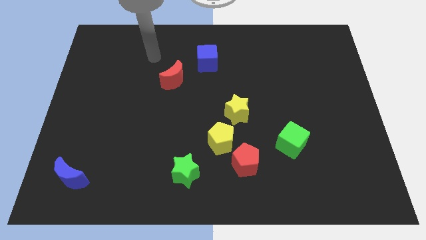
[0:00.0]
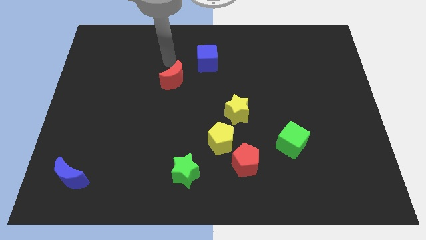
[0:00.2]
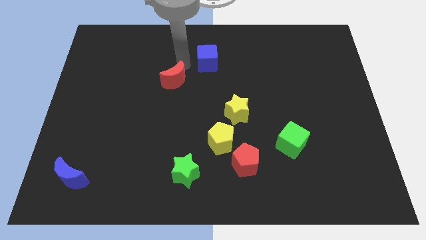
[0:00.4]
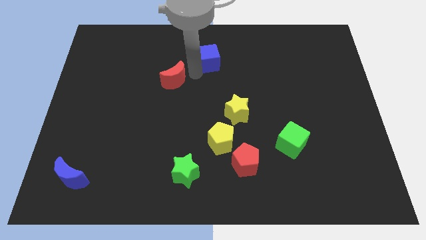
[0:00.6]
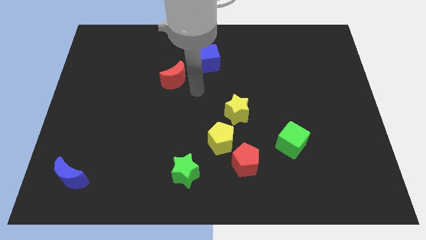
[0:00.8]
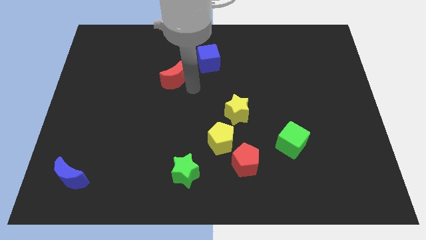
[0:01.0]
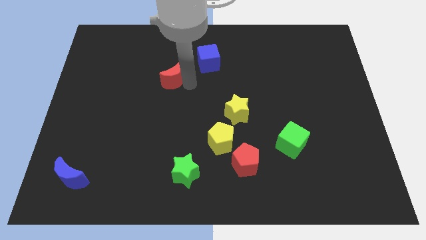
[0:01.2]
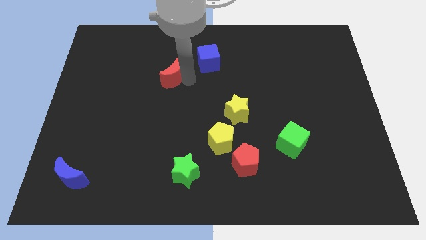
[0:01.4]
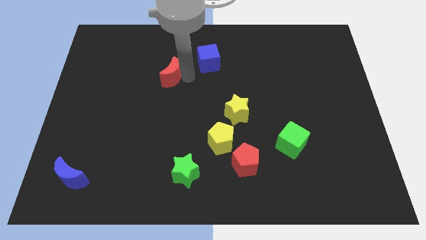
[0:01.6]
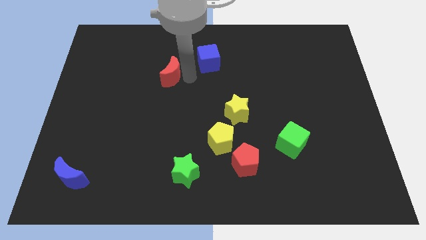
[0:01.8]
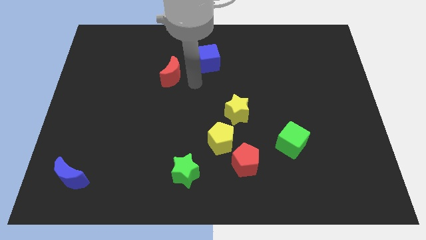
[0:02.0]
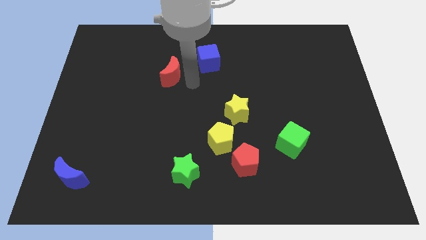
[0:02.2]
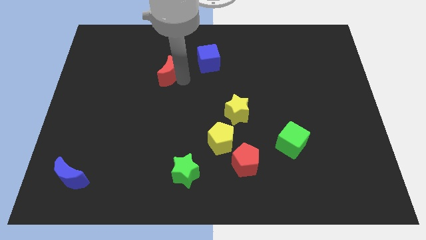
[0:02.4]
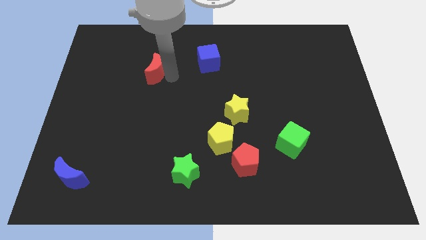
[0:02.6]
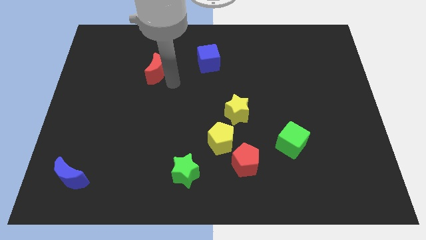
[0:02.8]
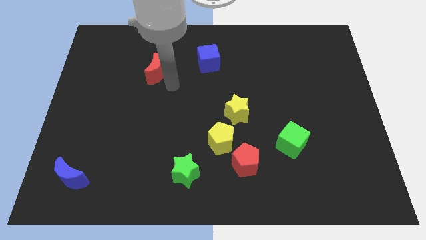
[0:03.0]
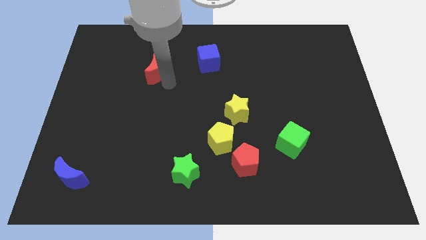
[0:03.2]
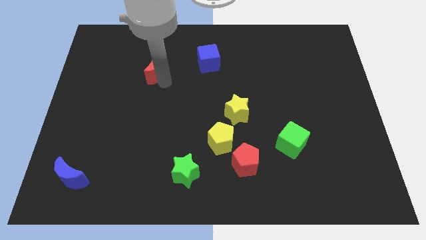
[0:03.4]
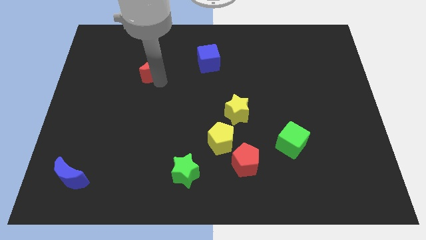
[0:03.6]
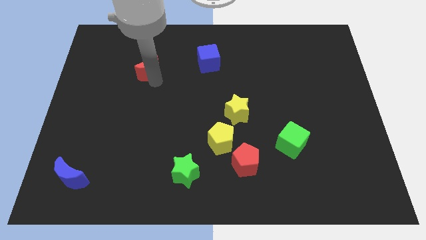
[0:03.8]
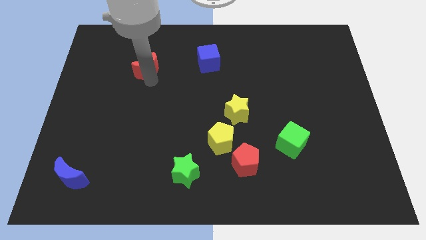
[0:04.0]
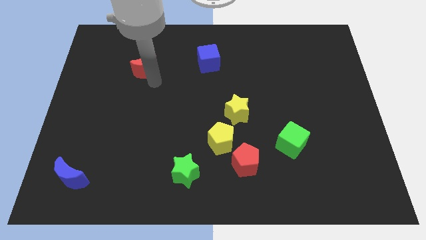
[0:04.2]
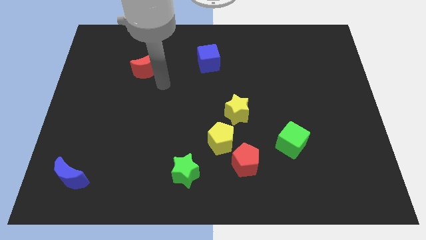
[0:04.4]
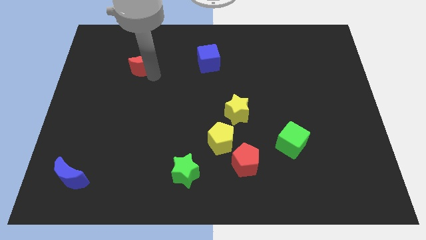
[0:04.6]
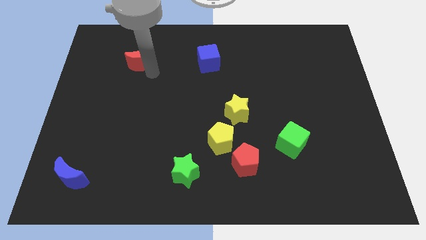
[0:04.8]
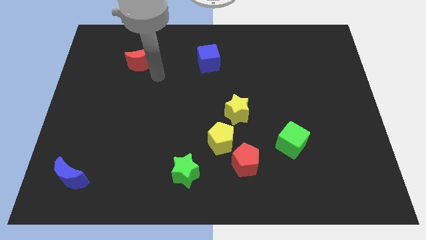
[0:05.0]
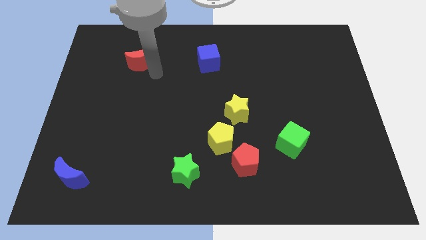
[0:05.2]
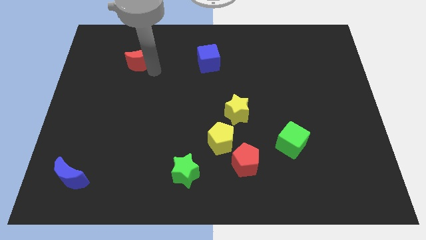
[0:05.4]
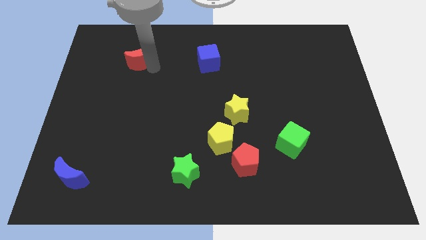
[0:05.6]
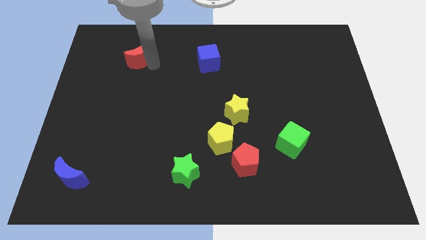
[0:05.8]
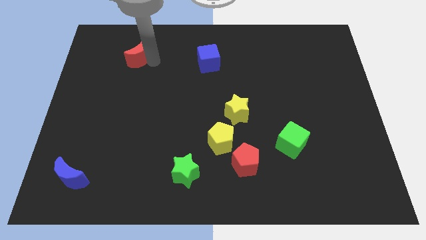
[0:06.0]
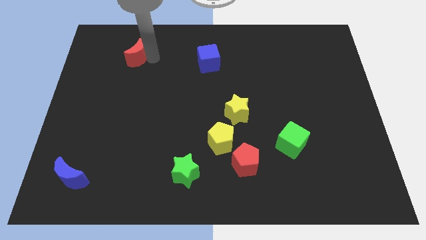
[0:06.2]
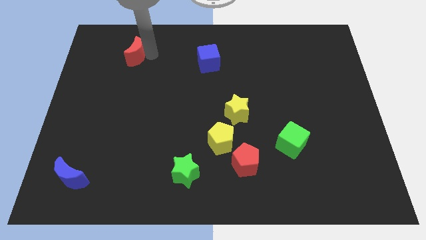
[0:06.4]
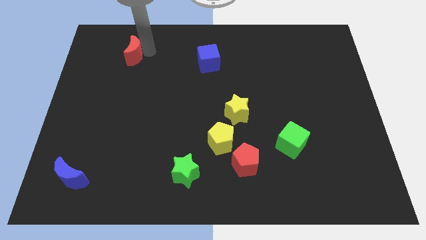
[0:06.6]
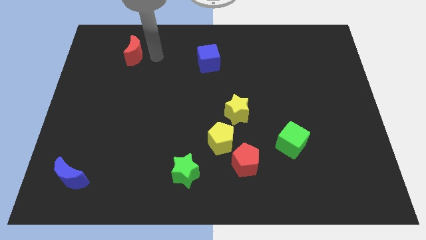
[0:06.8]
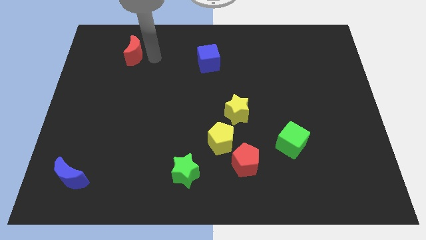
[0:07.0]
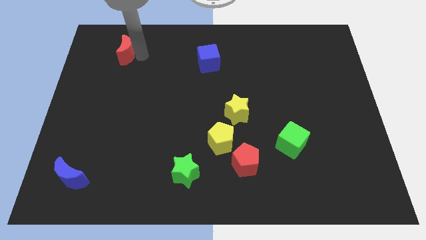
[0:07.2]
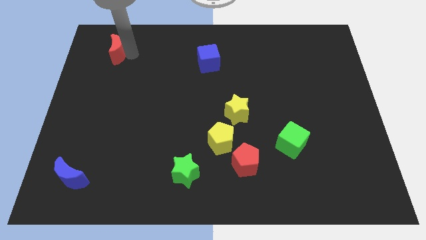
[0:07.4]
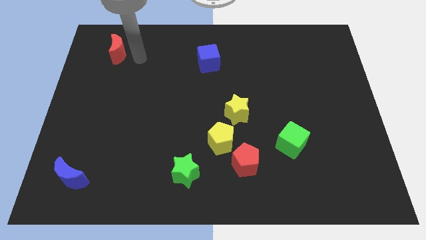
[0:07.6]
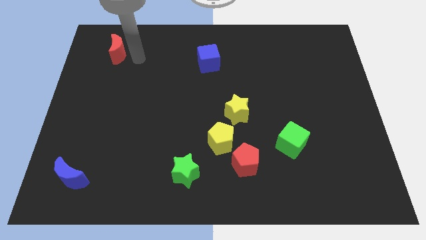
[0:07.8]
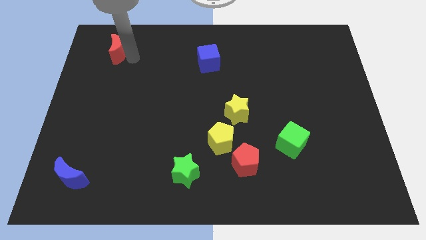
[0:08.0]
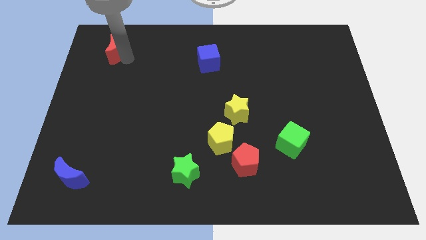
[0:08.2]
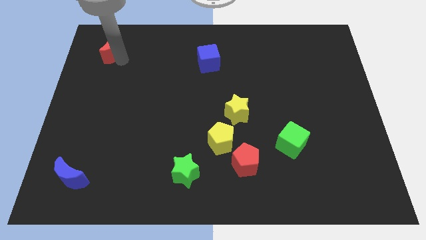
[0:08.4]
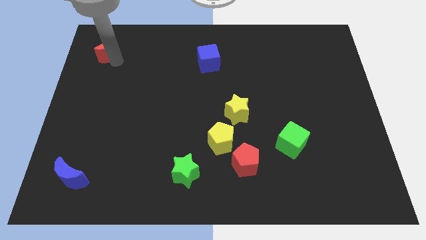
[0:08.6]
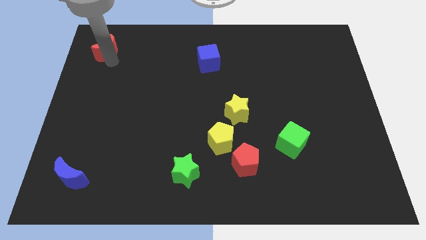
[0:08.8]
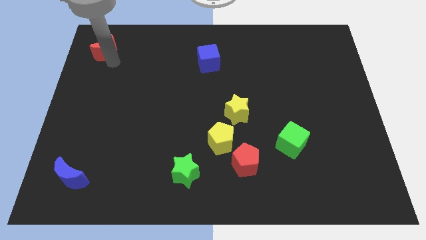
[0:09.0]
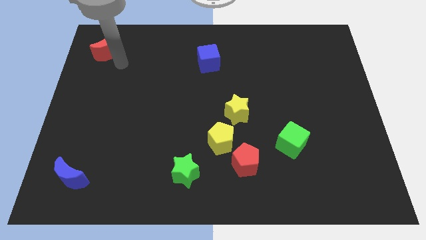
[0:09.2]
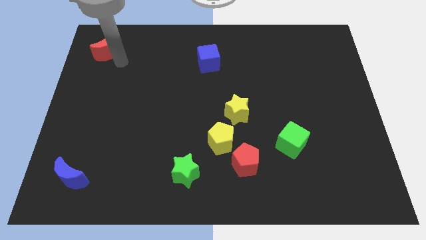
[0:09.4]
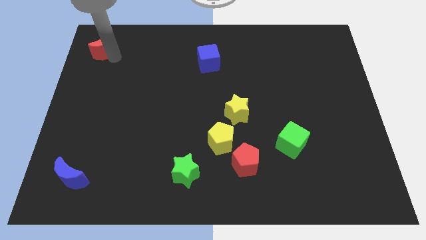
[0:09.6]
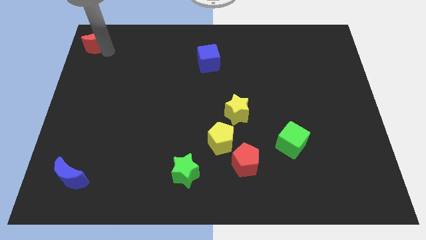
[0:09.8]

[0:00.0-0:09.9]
move the red moon to the top left

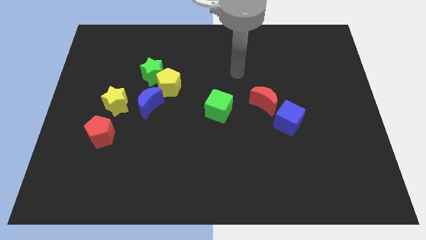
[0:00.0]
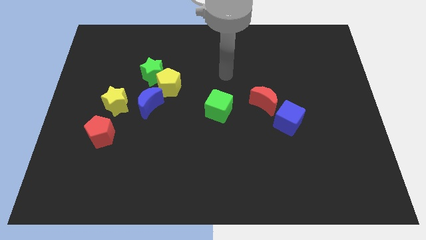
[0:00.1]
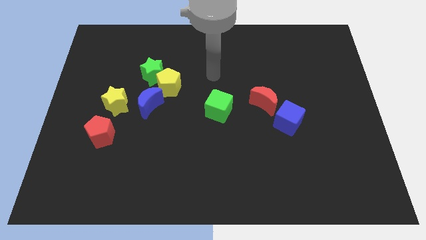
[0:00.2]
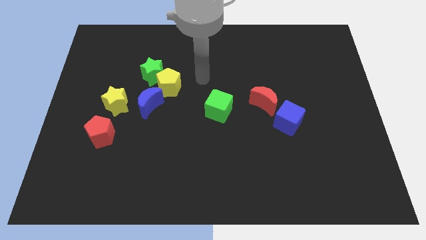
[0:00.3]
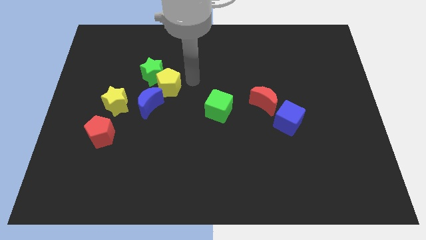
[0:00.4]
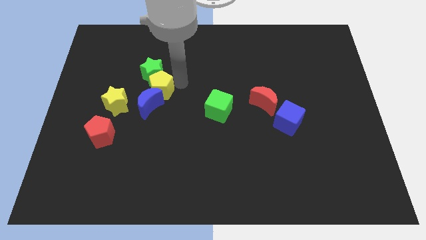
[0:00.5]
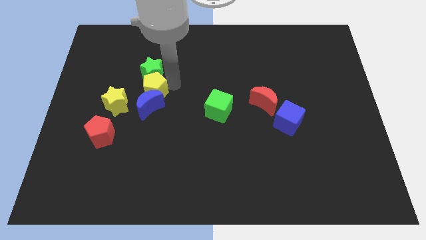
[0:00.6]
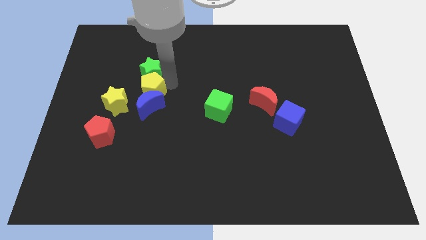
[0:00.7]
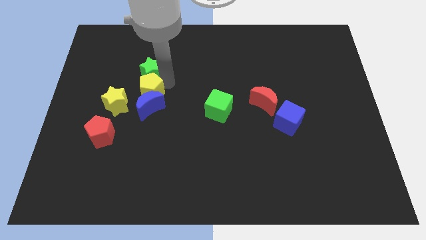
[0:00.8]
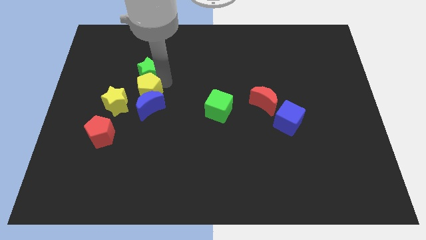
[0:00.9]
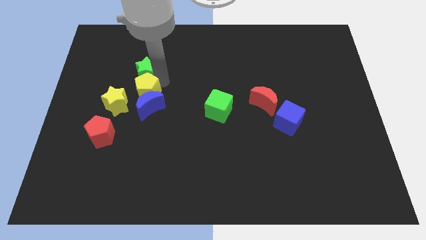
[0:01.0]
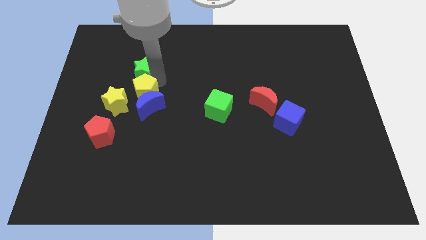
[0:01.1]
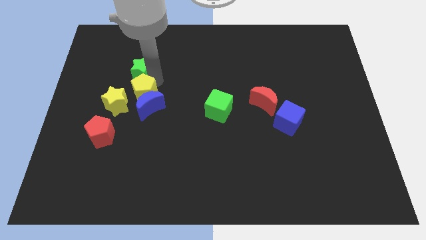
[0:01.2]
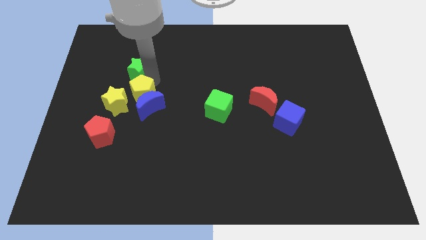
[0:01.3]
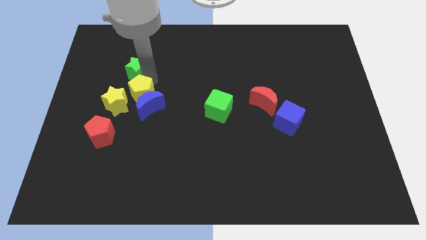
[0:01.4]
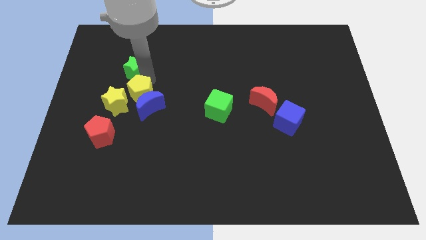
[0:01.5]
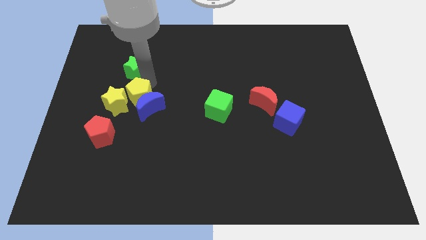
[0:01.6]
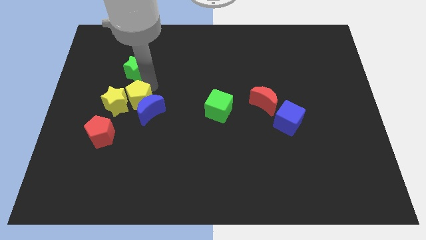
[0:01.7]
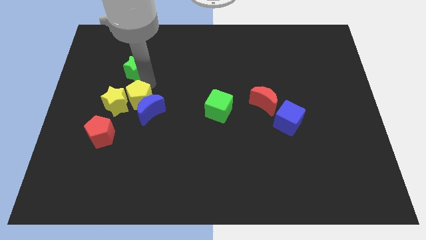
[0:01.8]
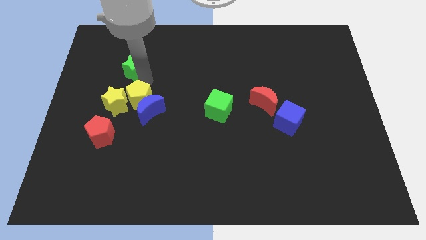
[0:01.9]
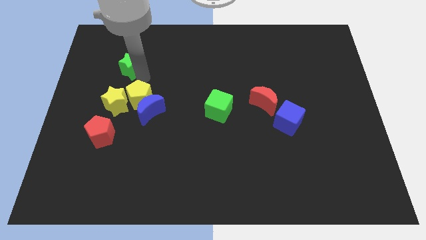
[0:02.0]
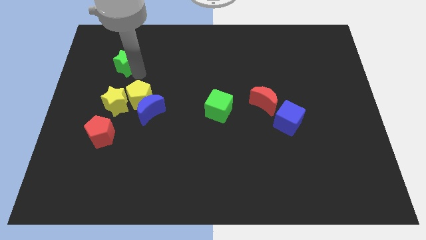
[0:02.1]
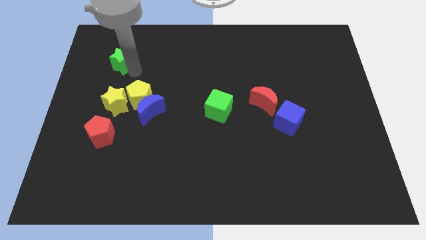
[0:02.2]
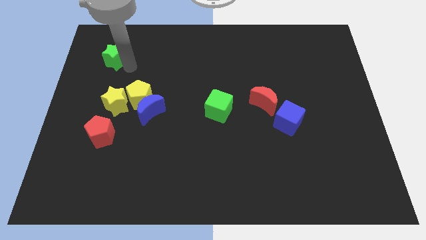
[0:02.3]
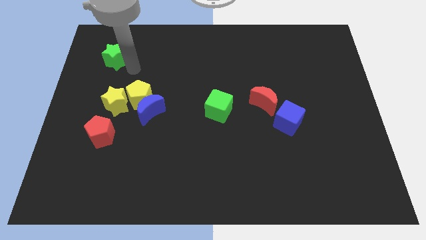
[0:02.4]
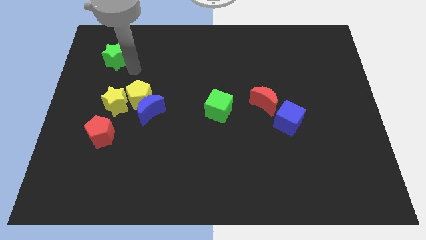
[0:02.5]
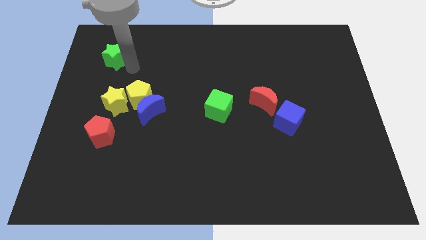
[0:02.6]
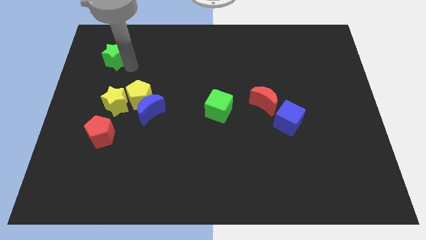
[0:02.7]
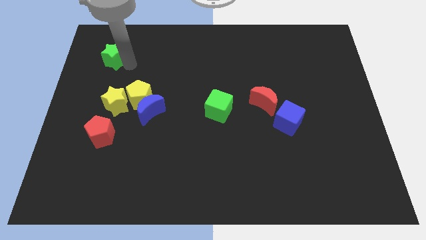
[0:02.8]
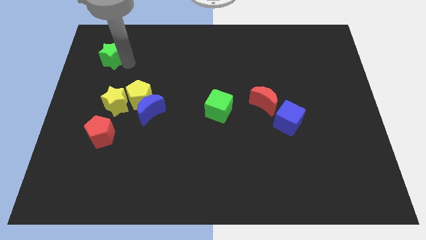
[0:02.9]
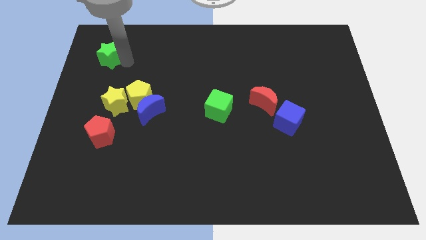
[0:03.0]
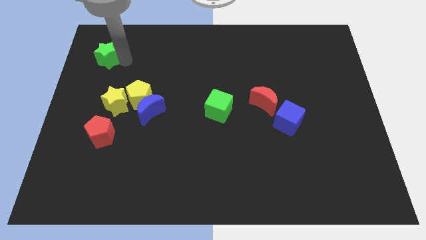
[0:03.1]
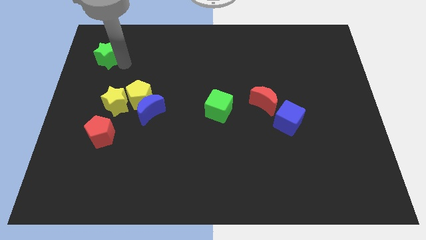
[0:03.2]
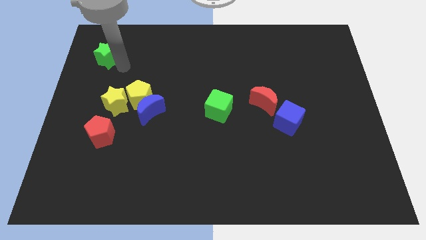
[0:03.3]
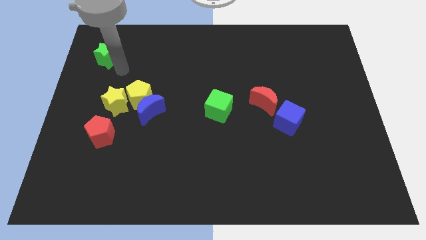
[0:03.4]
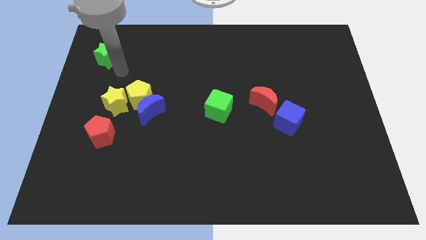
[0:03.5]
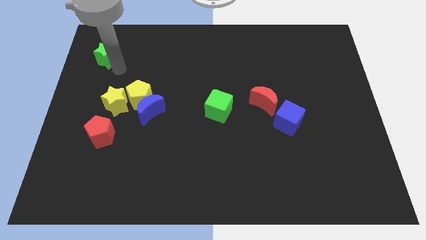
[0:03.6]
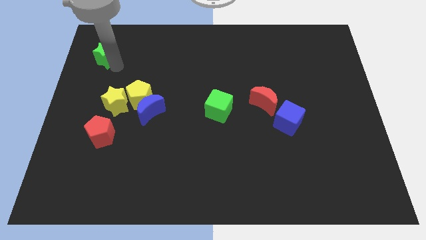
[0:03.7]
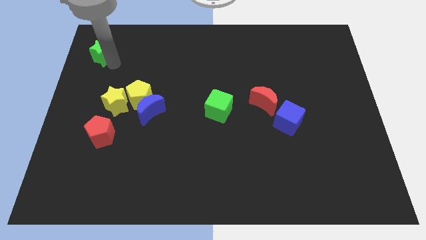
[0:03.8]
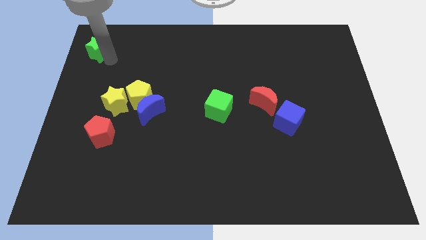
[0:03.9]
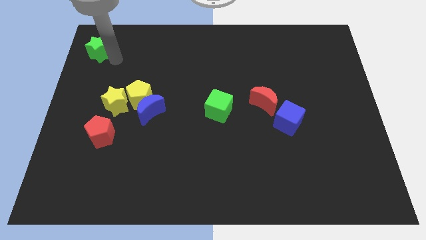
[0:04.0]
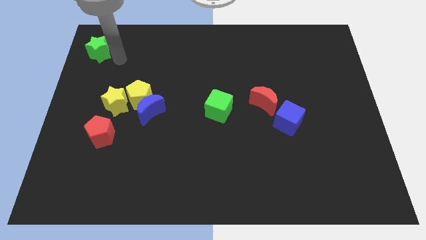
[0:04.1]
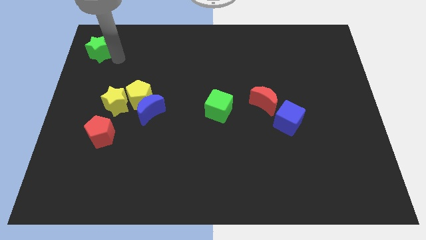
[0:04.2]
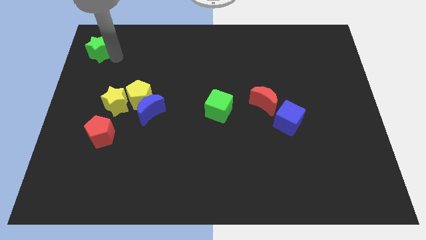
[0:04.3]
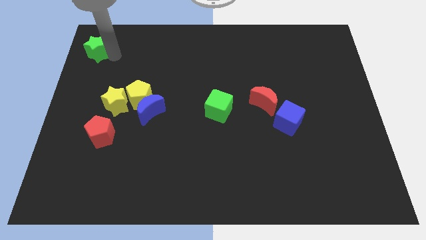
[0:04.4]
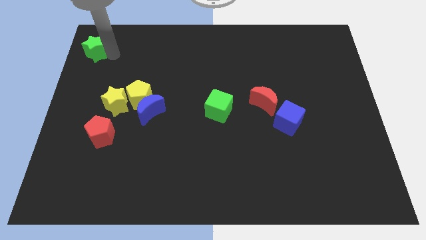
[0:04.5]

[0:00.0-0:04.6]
slide the green star to the top left
